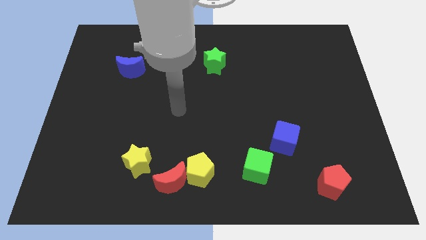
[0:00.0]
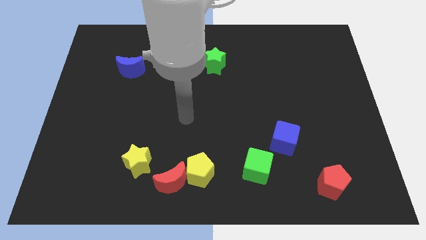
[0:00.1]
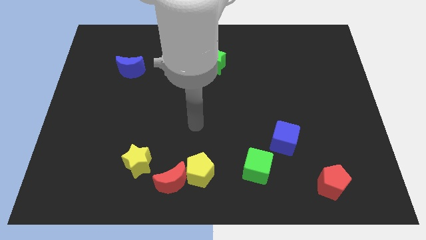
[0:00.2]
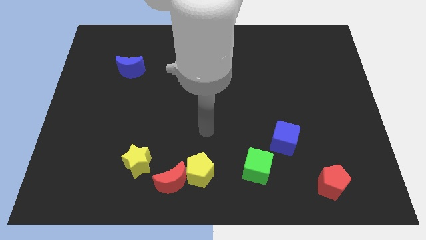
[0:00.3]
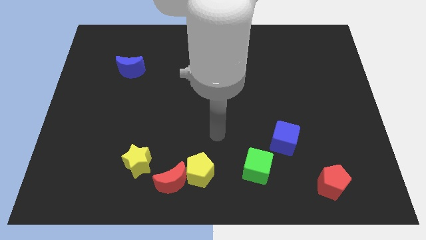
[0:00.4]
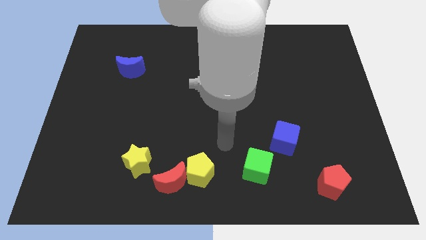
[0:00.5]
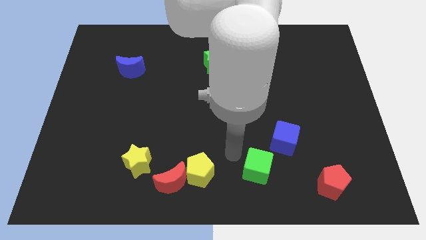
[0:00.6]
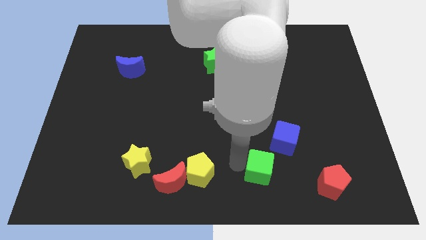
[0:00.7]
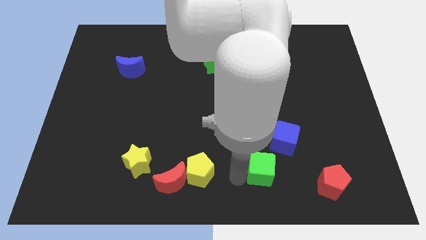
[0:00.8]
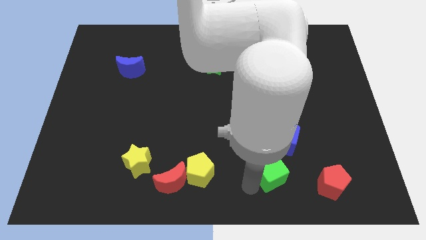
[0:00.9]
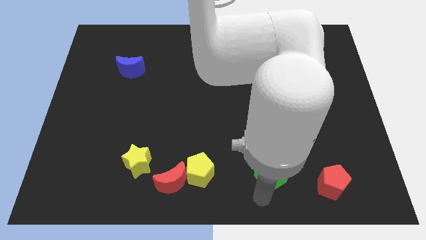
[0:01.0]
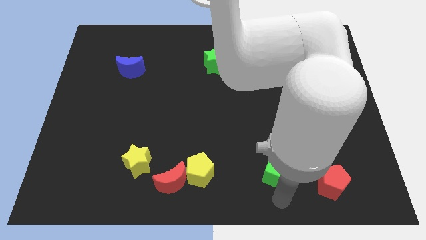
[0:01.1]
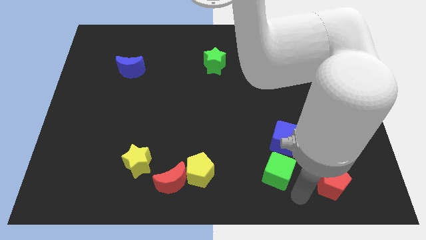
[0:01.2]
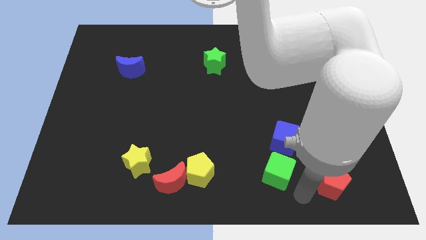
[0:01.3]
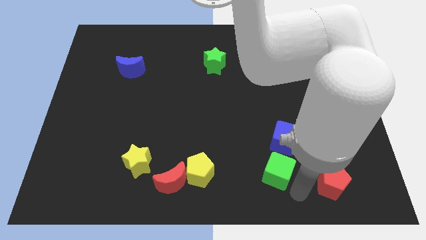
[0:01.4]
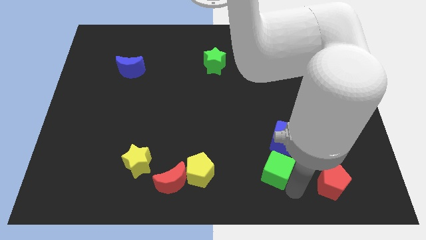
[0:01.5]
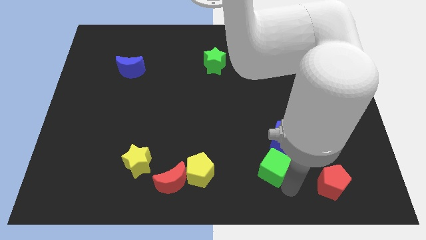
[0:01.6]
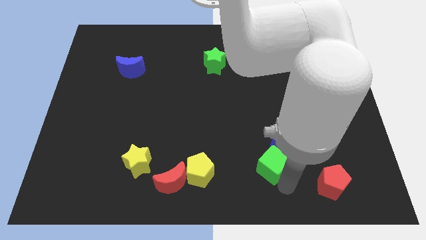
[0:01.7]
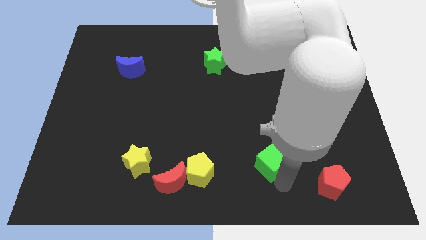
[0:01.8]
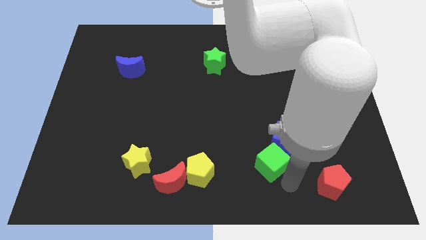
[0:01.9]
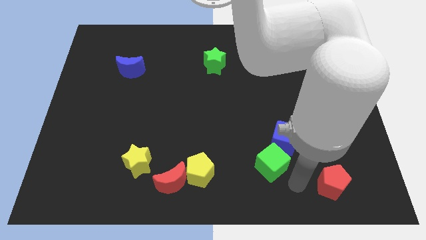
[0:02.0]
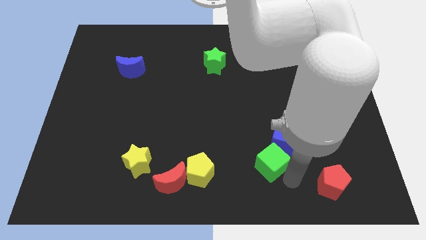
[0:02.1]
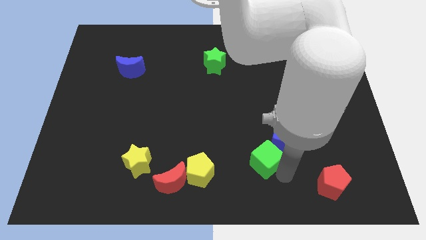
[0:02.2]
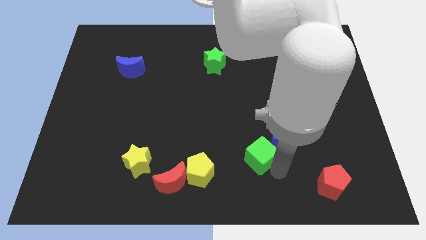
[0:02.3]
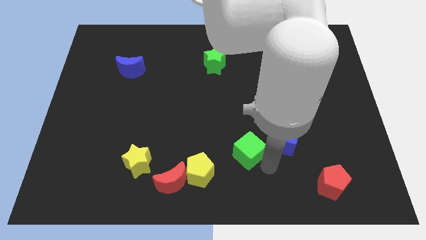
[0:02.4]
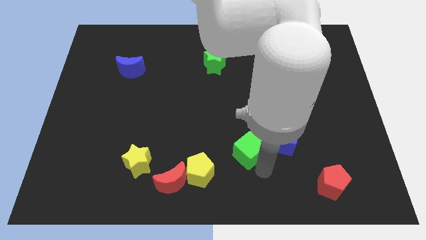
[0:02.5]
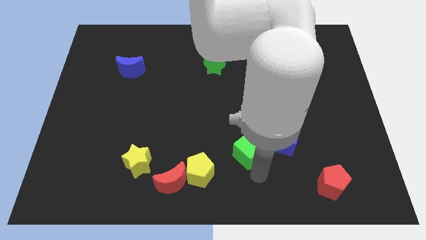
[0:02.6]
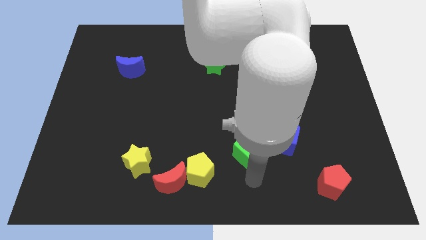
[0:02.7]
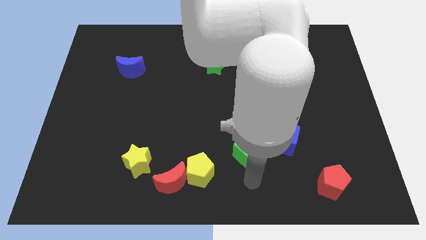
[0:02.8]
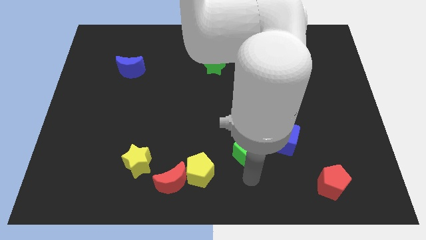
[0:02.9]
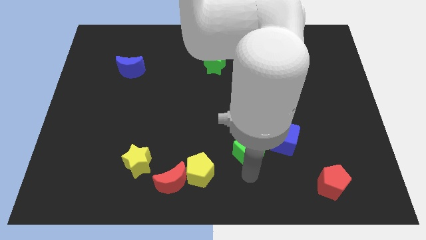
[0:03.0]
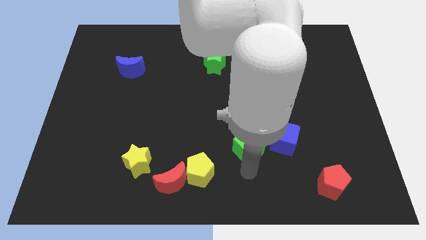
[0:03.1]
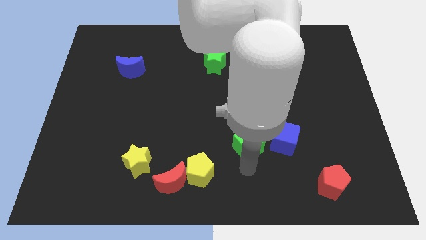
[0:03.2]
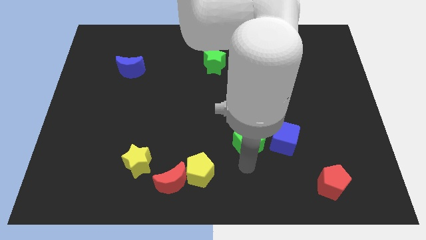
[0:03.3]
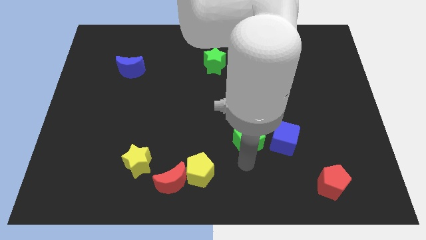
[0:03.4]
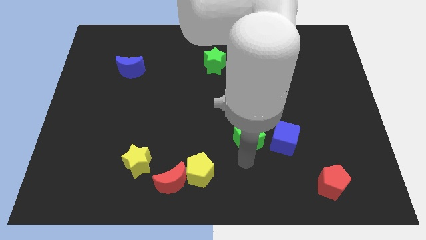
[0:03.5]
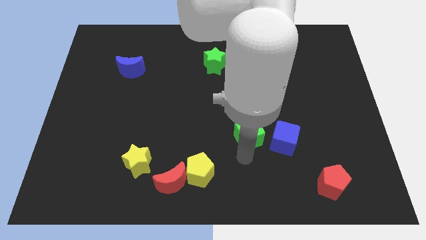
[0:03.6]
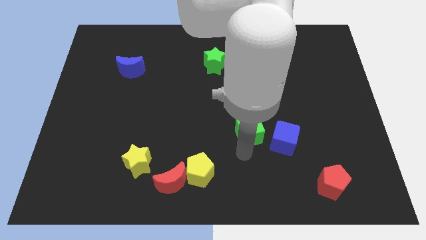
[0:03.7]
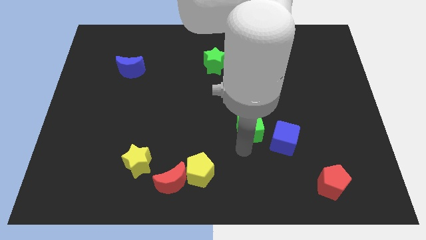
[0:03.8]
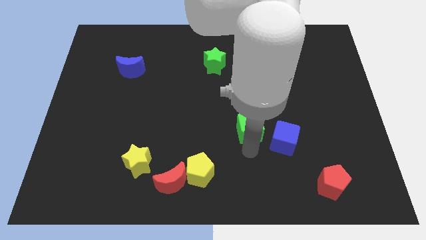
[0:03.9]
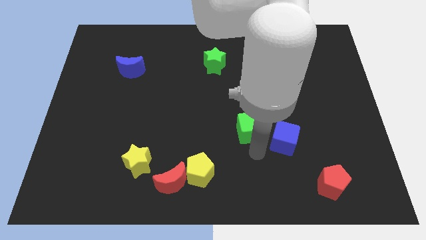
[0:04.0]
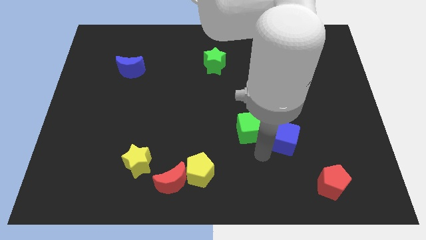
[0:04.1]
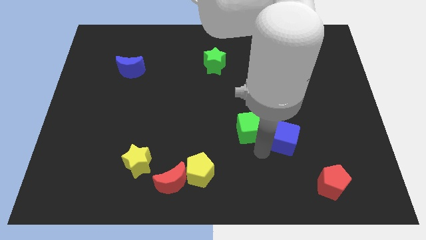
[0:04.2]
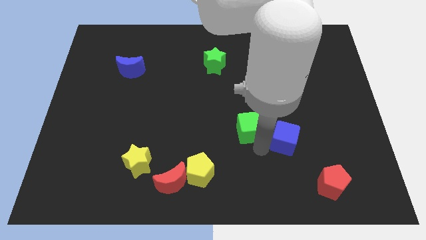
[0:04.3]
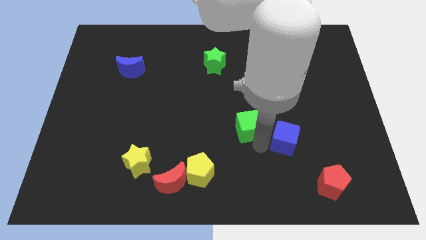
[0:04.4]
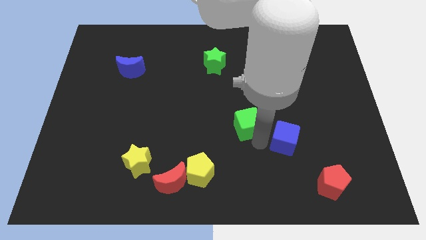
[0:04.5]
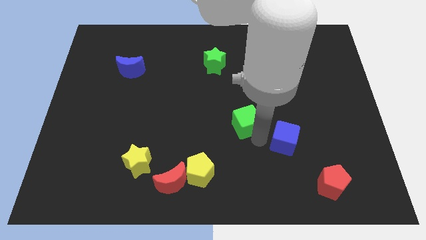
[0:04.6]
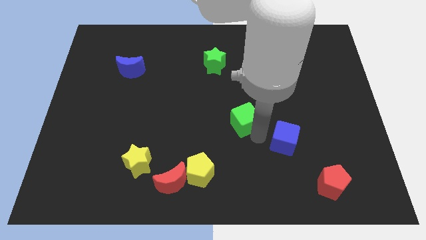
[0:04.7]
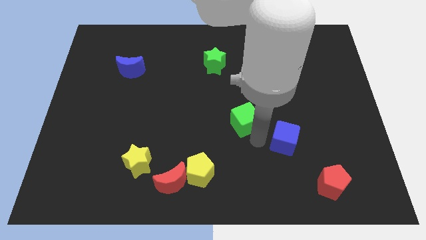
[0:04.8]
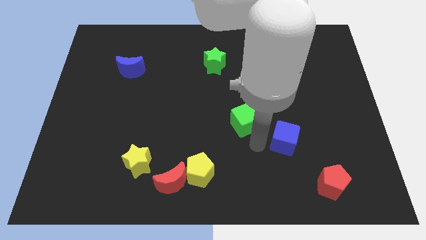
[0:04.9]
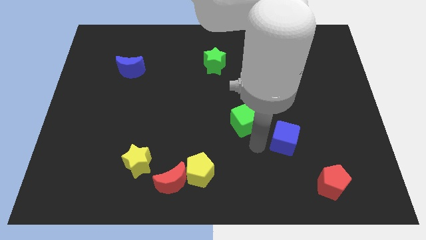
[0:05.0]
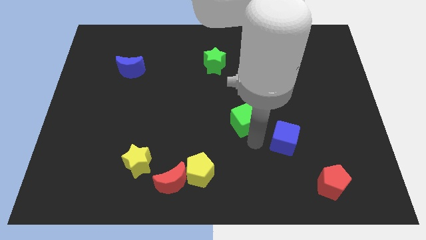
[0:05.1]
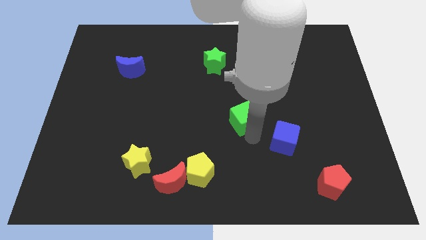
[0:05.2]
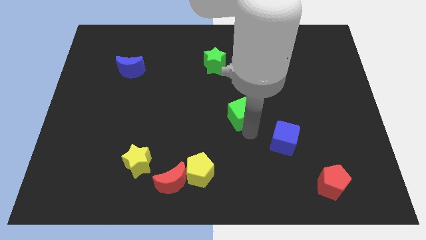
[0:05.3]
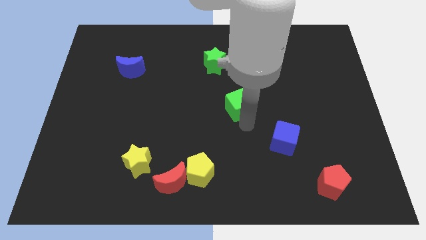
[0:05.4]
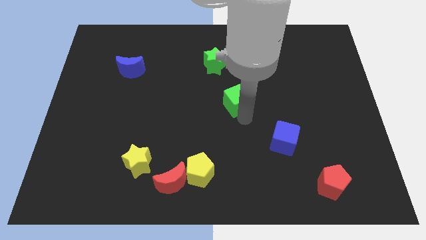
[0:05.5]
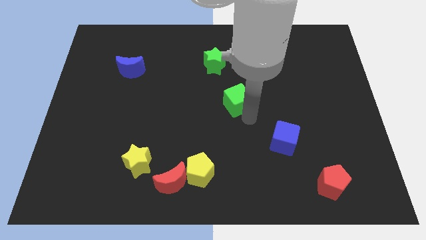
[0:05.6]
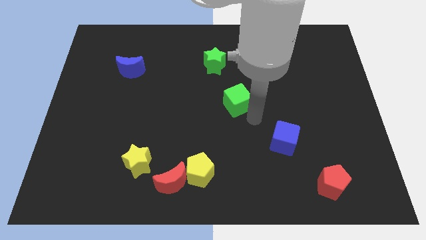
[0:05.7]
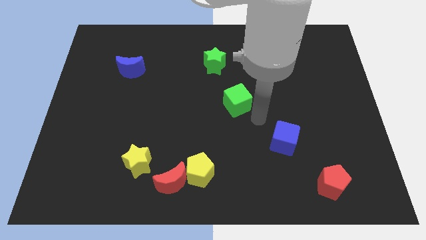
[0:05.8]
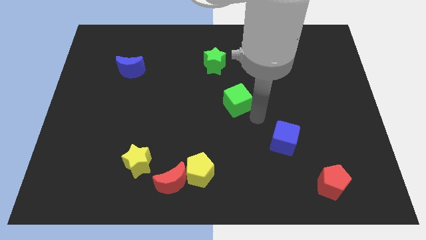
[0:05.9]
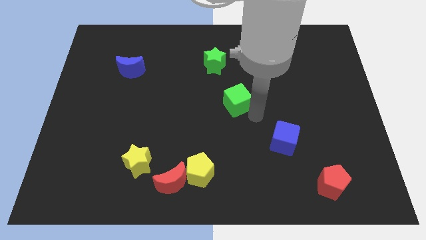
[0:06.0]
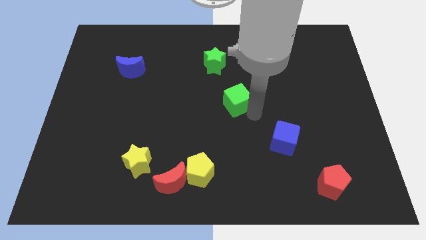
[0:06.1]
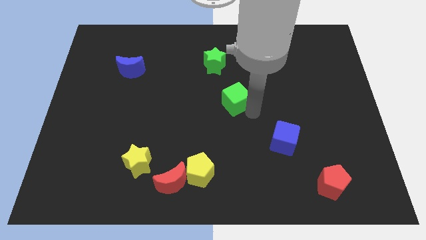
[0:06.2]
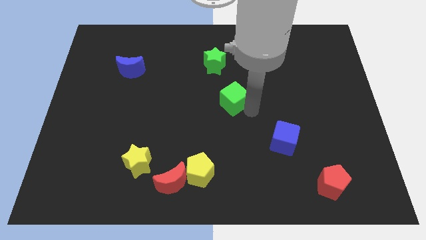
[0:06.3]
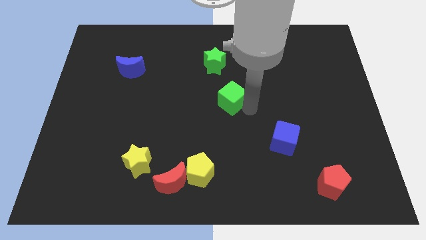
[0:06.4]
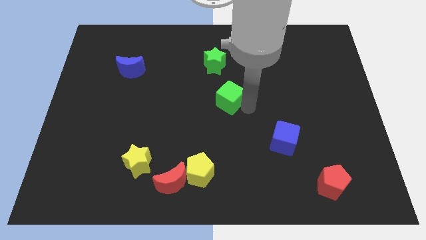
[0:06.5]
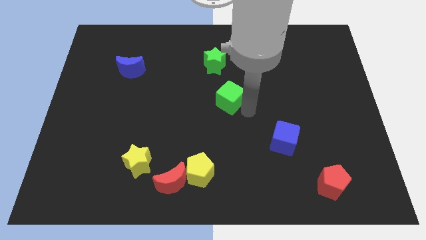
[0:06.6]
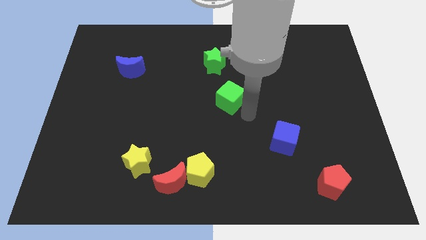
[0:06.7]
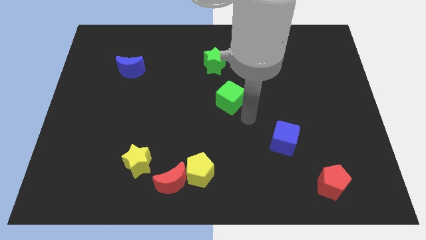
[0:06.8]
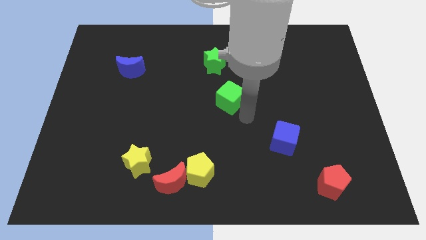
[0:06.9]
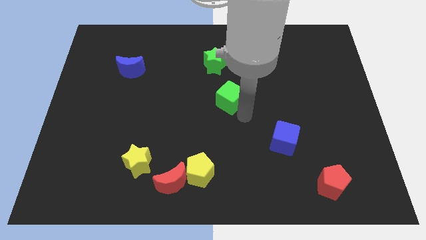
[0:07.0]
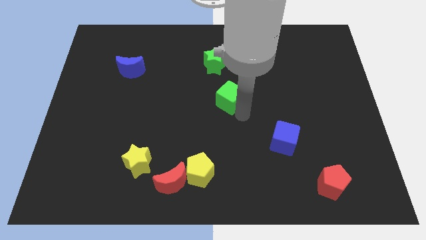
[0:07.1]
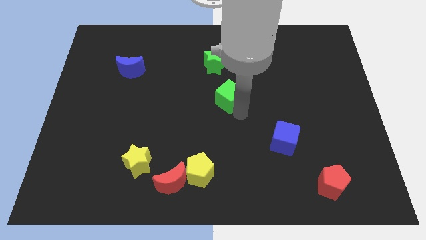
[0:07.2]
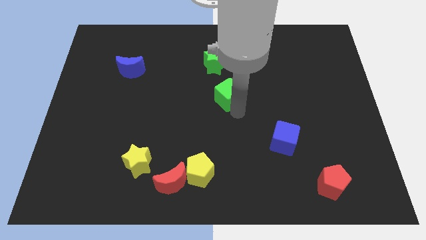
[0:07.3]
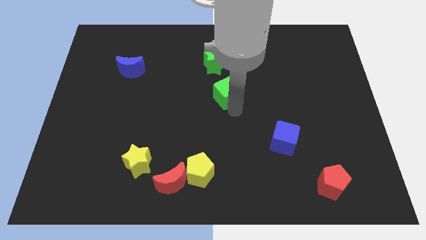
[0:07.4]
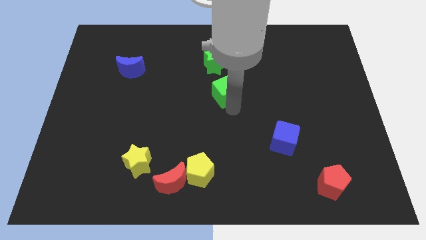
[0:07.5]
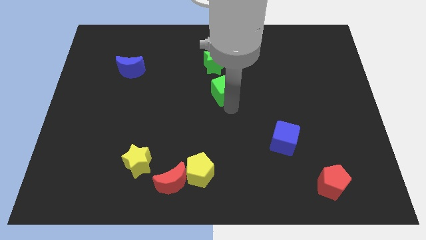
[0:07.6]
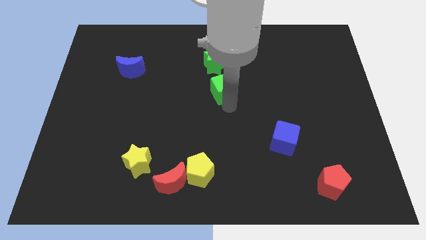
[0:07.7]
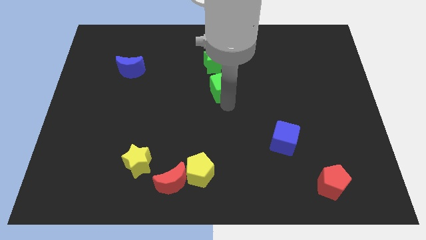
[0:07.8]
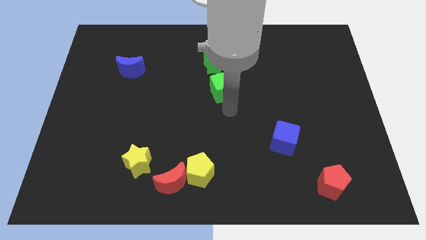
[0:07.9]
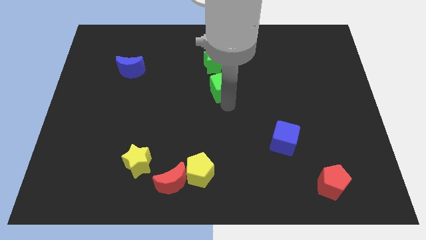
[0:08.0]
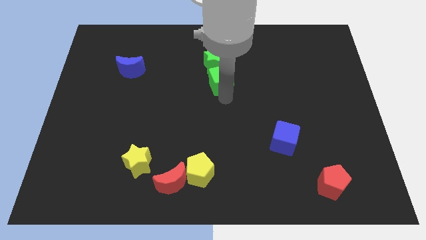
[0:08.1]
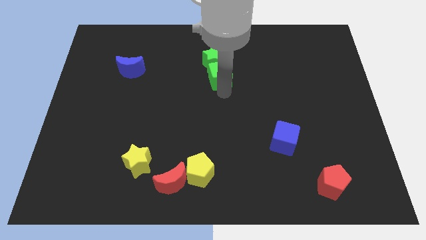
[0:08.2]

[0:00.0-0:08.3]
push the green cube to the green star
